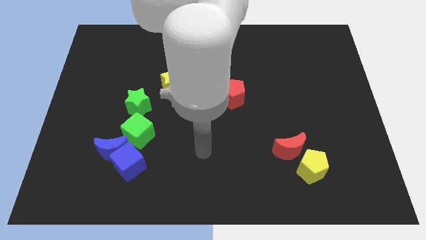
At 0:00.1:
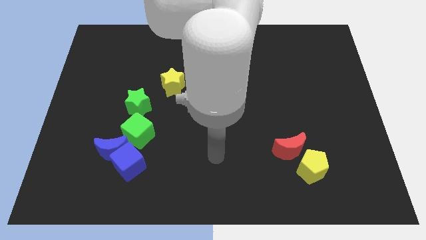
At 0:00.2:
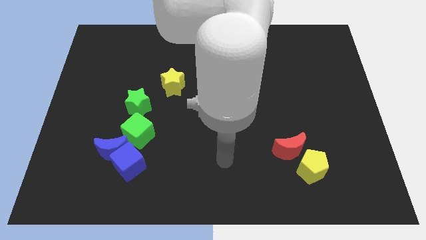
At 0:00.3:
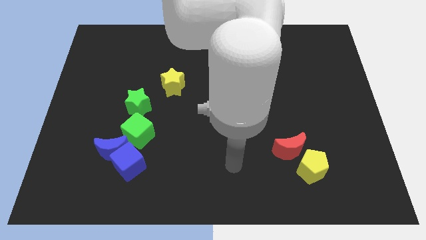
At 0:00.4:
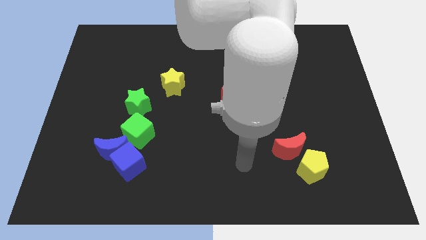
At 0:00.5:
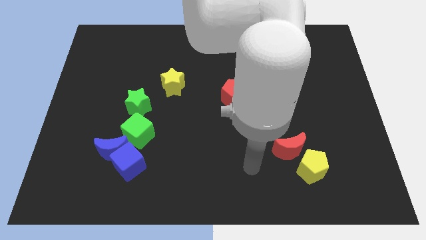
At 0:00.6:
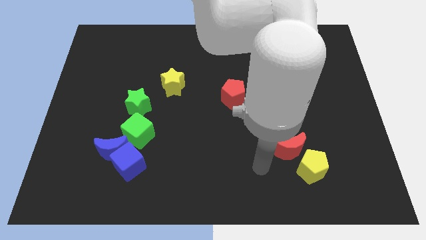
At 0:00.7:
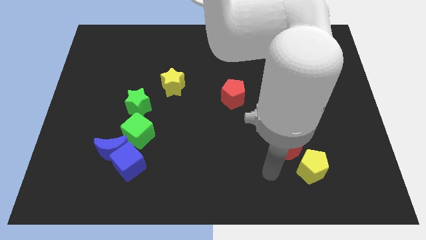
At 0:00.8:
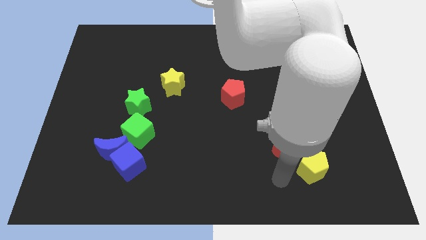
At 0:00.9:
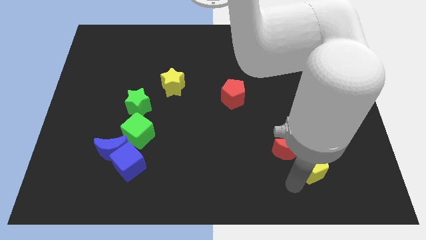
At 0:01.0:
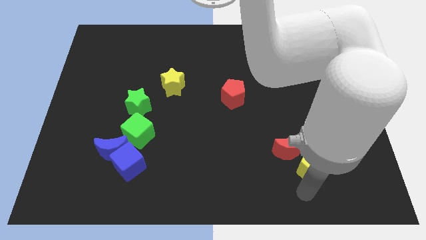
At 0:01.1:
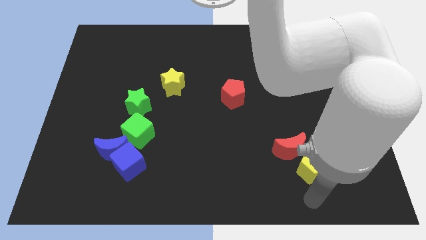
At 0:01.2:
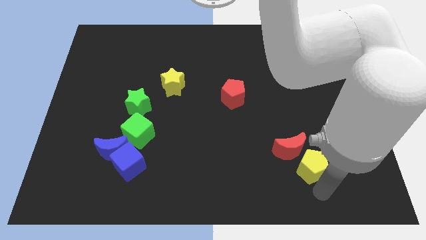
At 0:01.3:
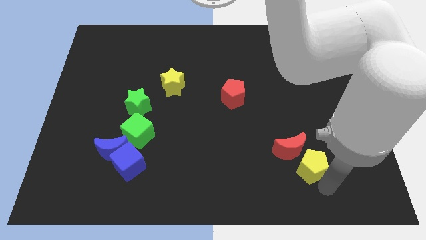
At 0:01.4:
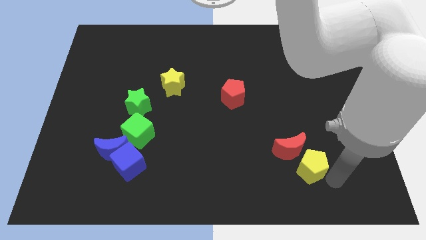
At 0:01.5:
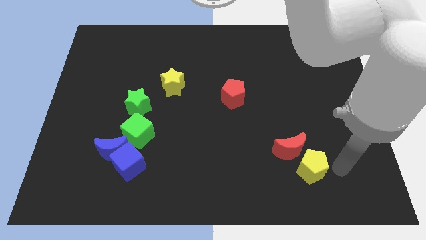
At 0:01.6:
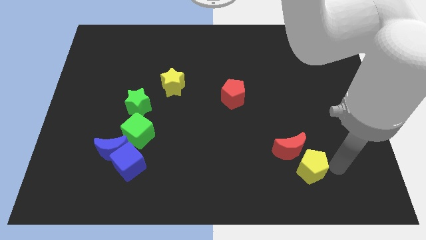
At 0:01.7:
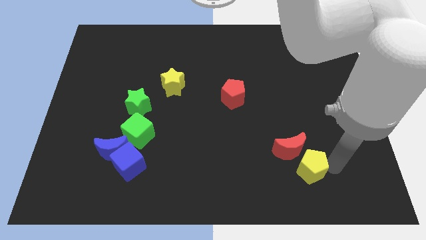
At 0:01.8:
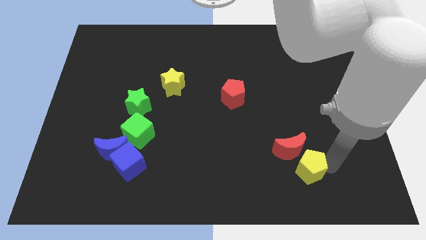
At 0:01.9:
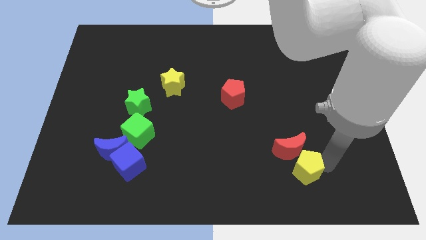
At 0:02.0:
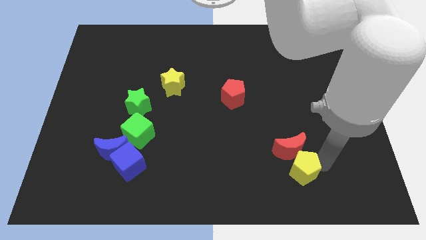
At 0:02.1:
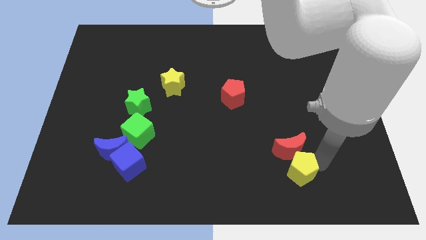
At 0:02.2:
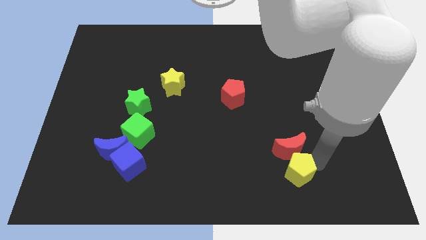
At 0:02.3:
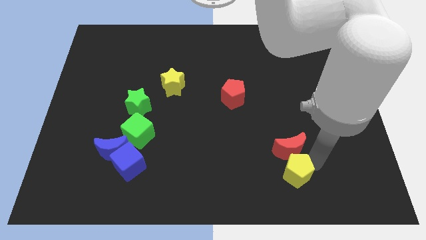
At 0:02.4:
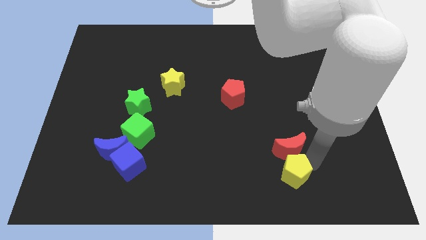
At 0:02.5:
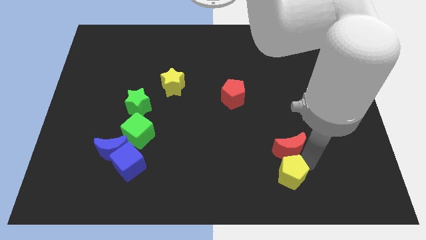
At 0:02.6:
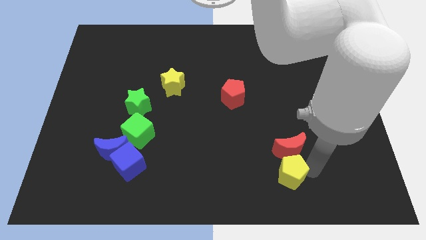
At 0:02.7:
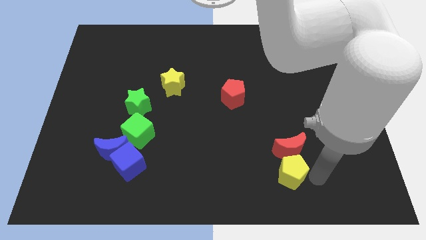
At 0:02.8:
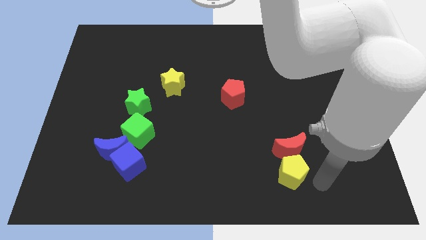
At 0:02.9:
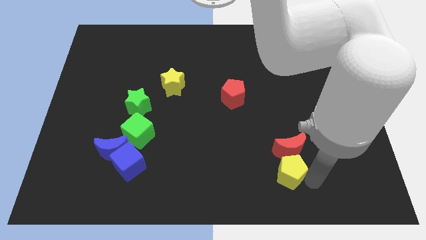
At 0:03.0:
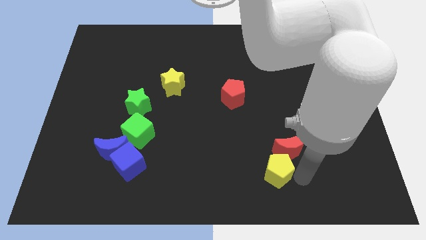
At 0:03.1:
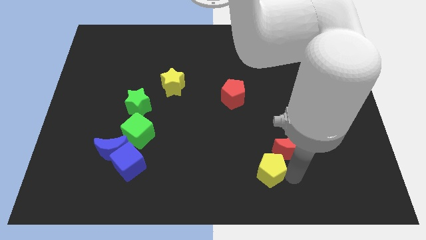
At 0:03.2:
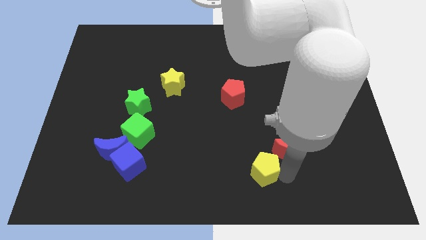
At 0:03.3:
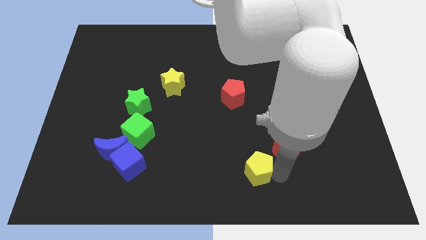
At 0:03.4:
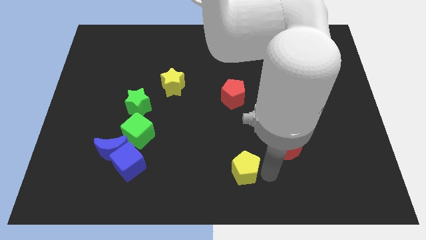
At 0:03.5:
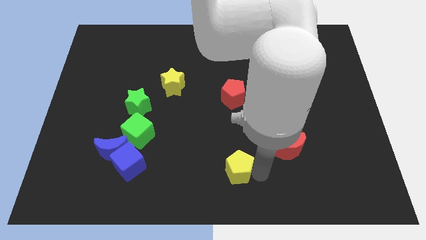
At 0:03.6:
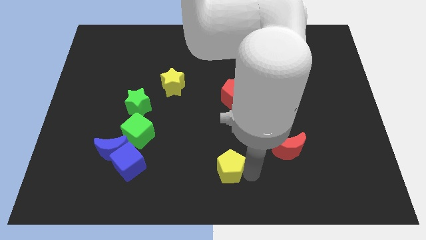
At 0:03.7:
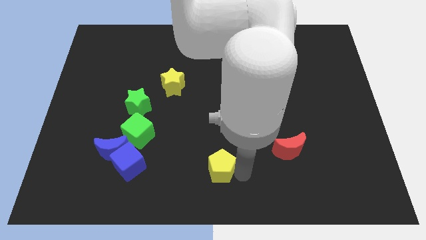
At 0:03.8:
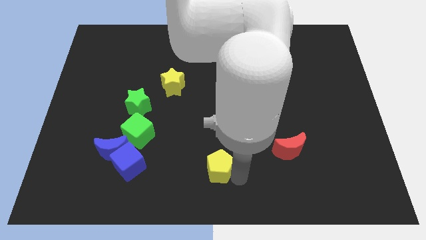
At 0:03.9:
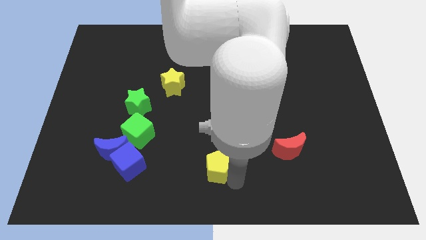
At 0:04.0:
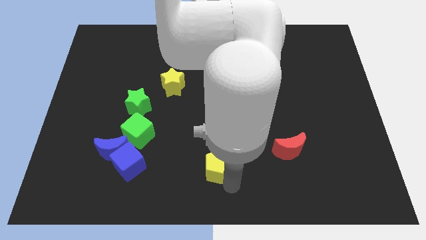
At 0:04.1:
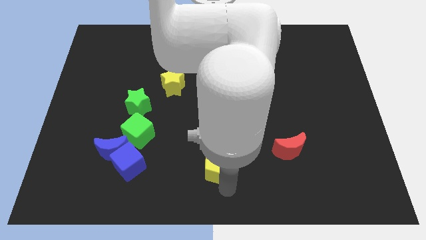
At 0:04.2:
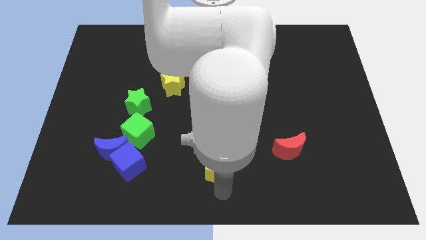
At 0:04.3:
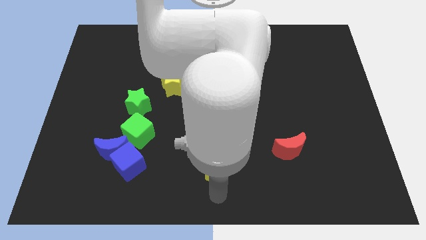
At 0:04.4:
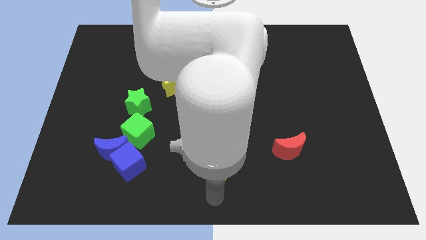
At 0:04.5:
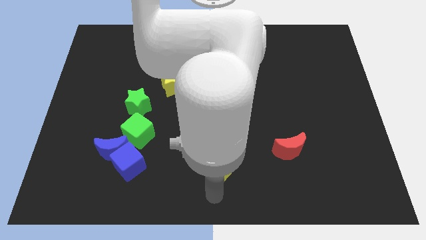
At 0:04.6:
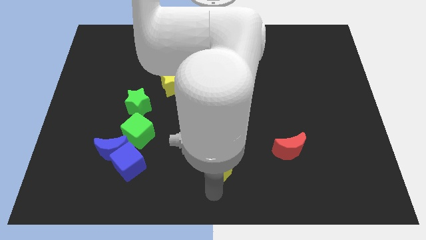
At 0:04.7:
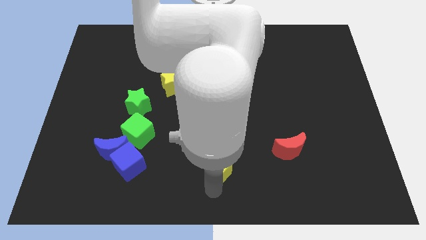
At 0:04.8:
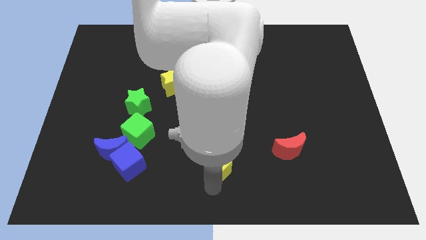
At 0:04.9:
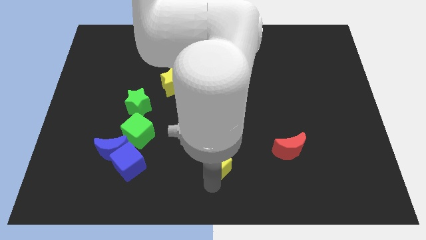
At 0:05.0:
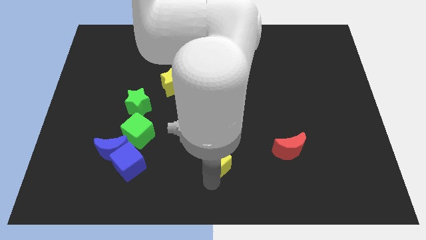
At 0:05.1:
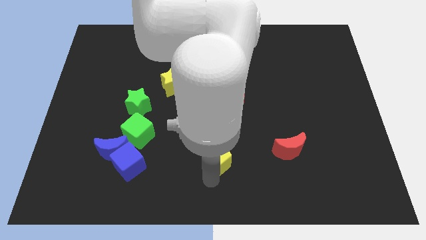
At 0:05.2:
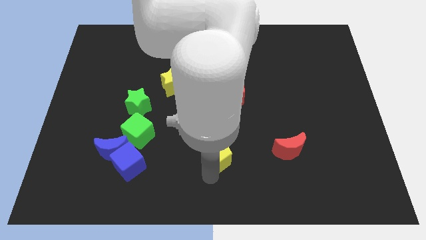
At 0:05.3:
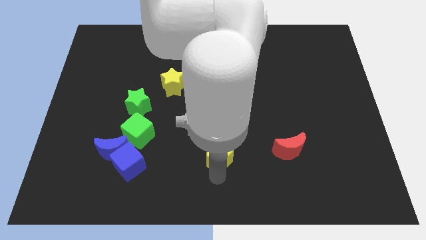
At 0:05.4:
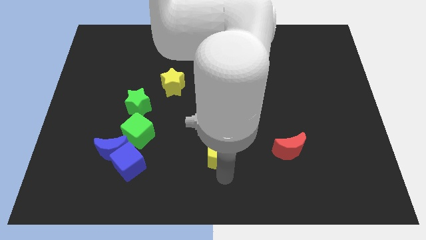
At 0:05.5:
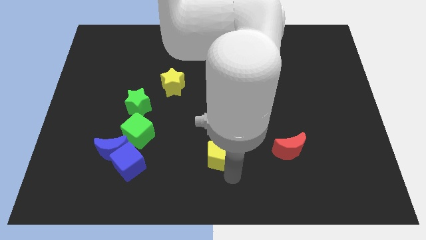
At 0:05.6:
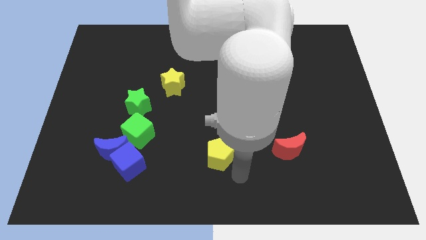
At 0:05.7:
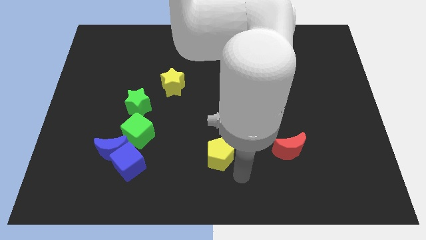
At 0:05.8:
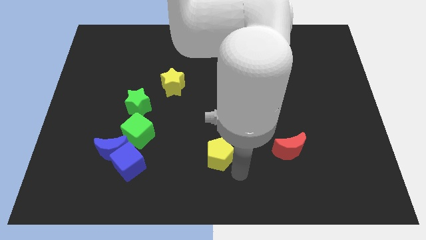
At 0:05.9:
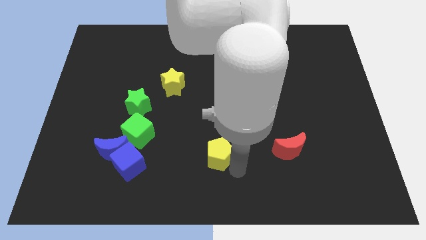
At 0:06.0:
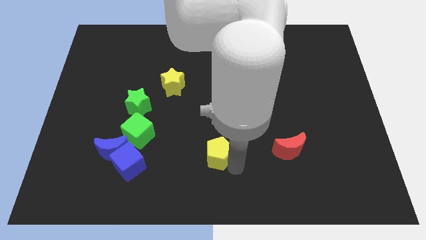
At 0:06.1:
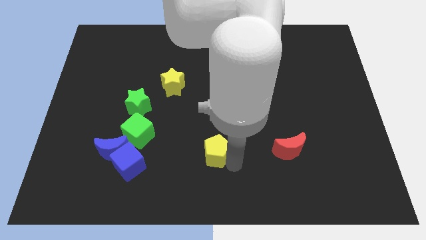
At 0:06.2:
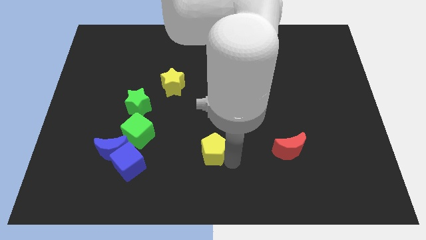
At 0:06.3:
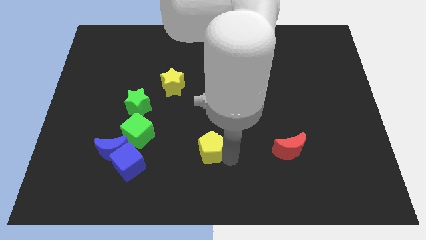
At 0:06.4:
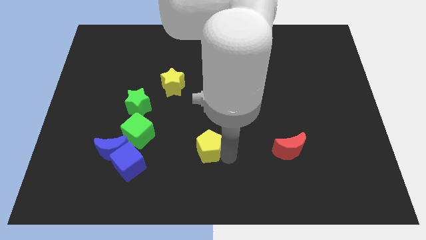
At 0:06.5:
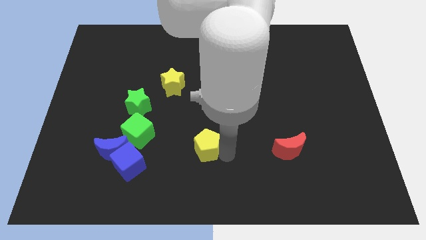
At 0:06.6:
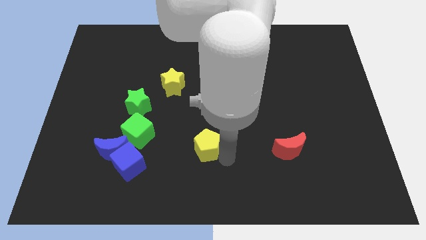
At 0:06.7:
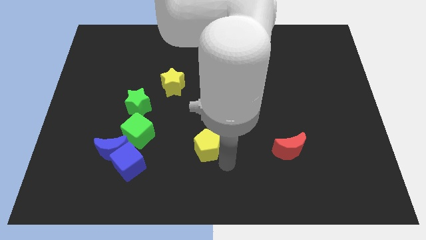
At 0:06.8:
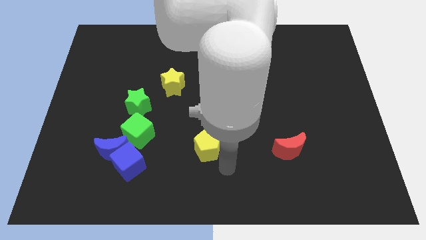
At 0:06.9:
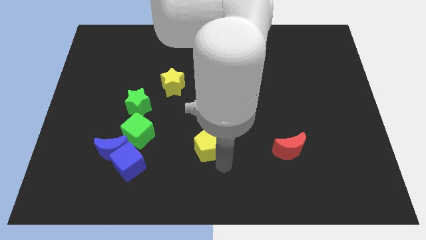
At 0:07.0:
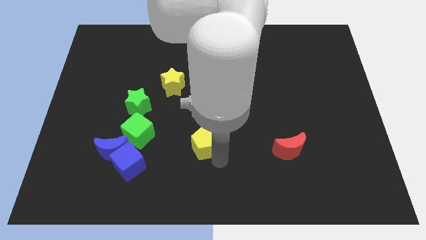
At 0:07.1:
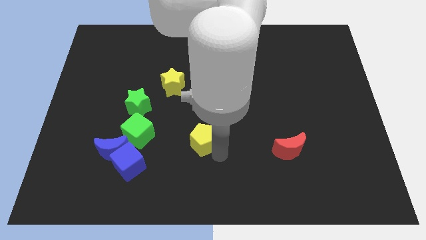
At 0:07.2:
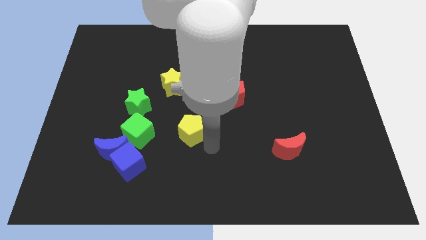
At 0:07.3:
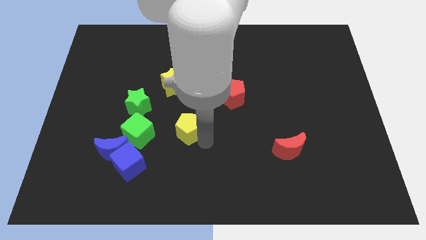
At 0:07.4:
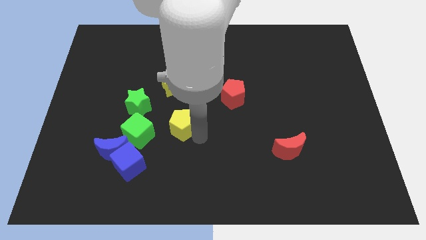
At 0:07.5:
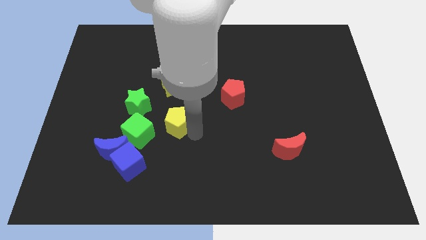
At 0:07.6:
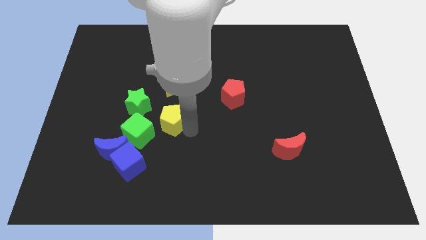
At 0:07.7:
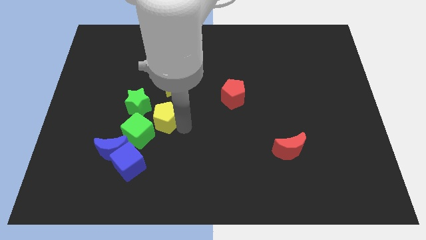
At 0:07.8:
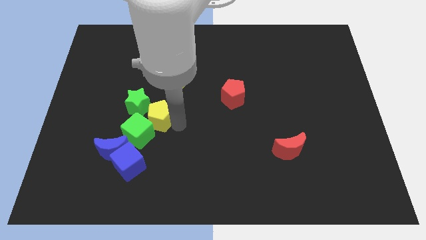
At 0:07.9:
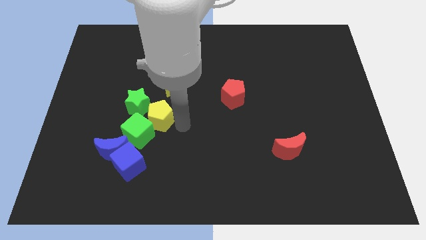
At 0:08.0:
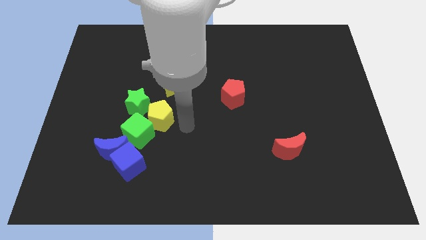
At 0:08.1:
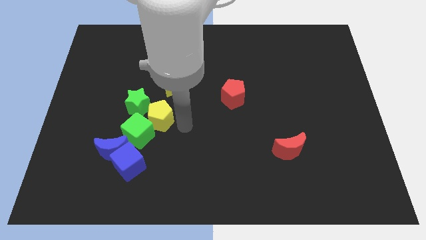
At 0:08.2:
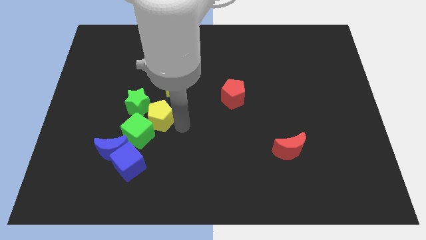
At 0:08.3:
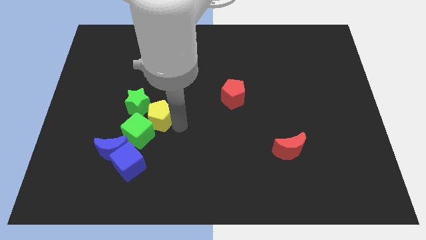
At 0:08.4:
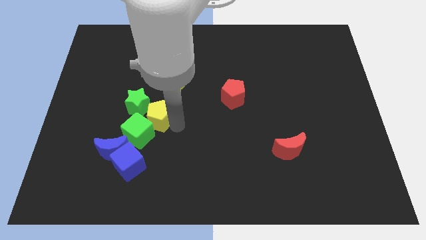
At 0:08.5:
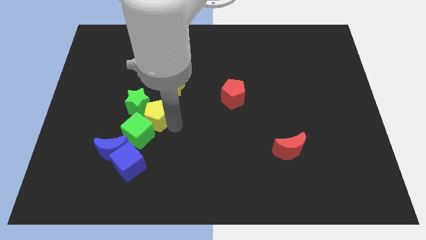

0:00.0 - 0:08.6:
move the yellow pentagon to the green star
